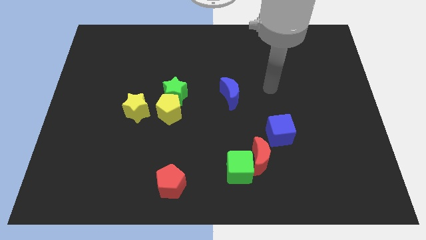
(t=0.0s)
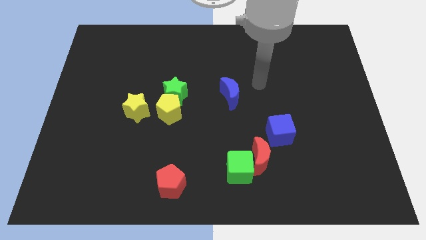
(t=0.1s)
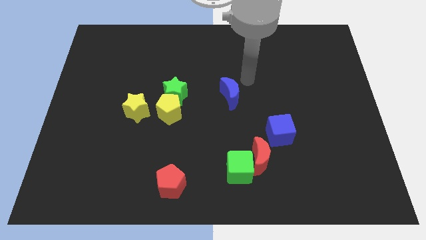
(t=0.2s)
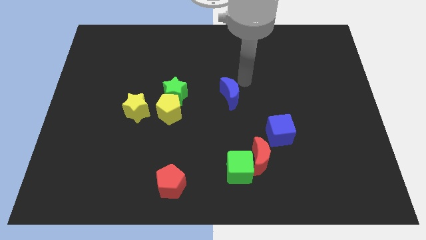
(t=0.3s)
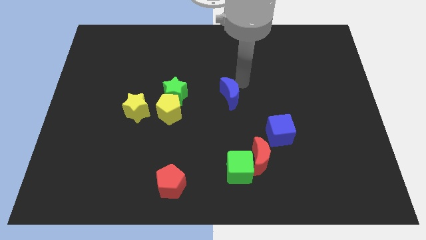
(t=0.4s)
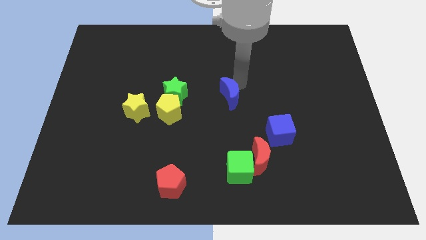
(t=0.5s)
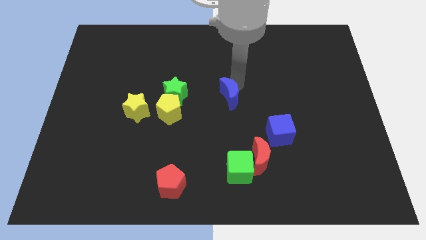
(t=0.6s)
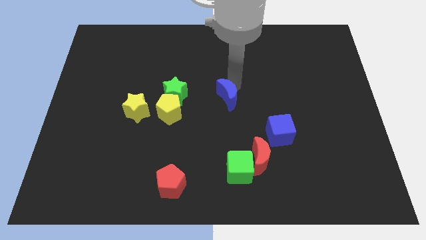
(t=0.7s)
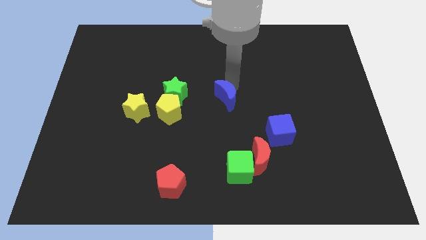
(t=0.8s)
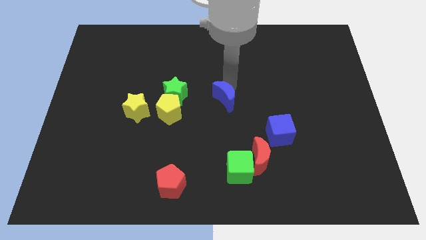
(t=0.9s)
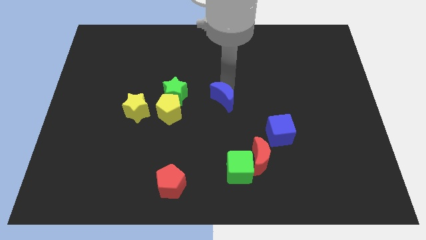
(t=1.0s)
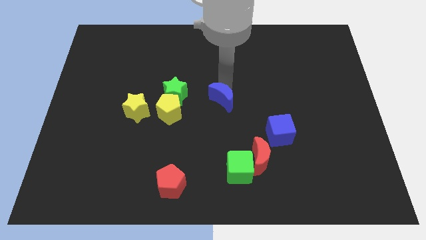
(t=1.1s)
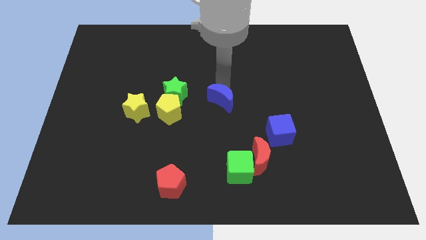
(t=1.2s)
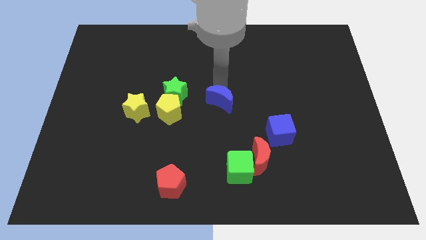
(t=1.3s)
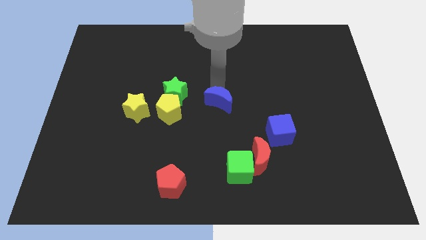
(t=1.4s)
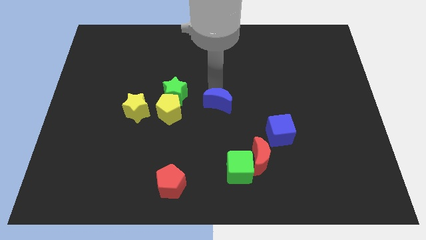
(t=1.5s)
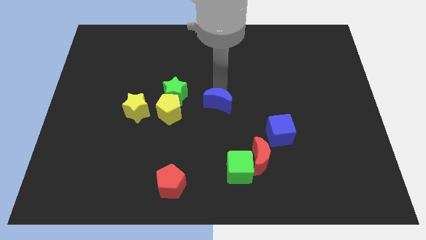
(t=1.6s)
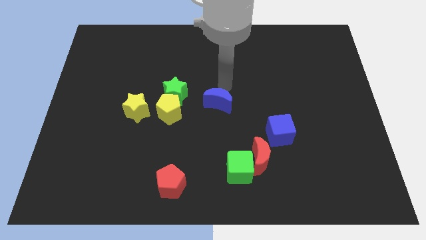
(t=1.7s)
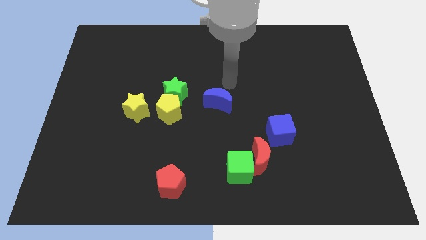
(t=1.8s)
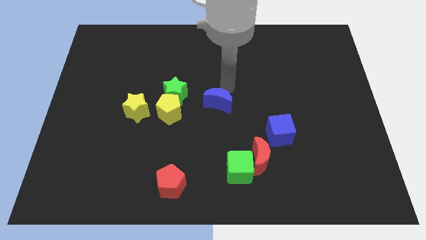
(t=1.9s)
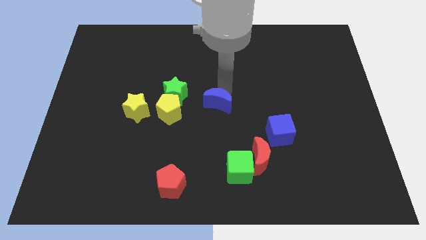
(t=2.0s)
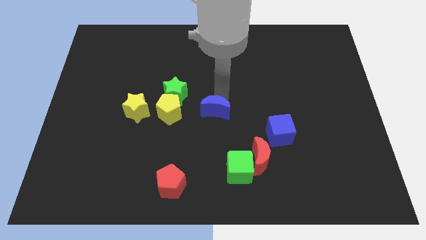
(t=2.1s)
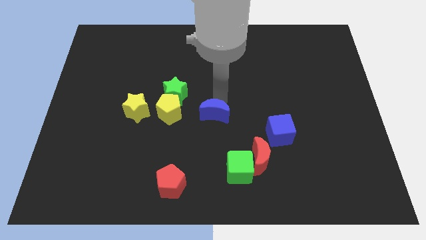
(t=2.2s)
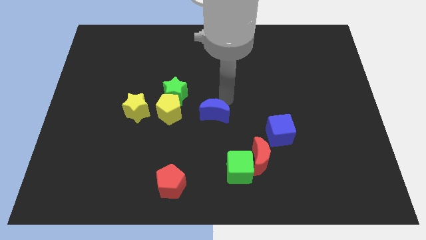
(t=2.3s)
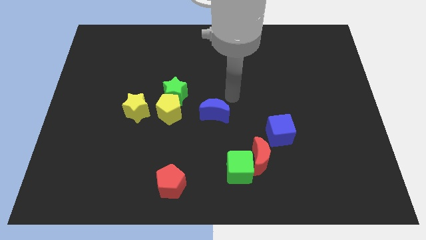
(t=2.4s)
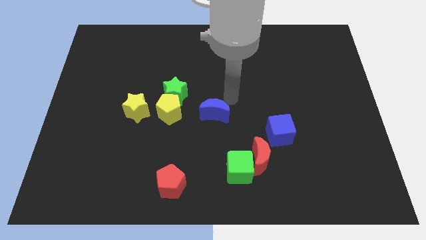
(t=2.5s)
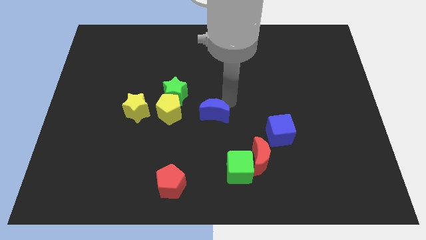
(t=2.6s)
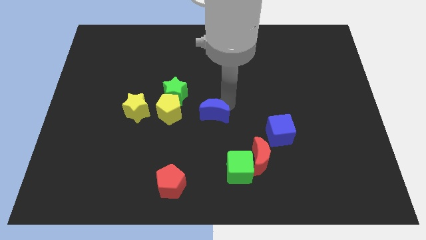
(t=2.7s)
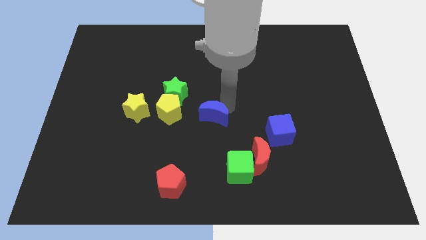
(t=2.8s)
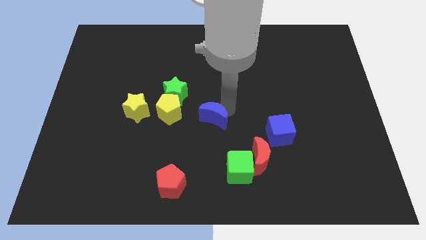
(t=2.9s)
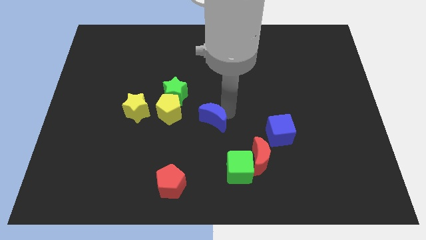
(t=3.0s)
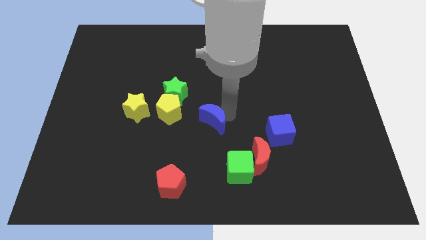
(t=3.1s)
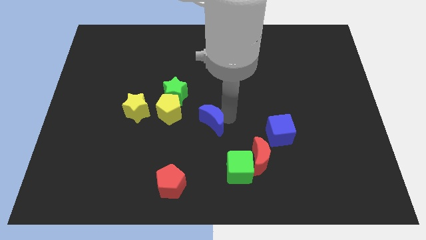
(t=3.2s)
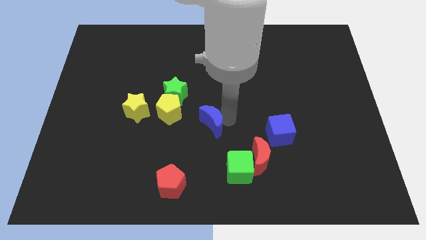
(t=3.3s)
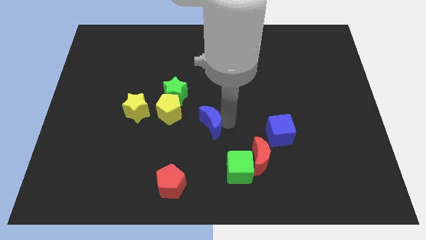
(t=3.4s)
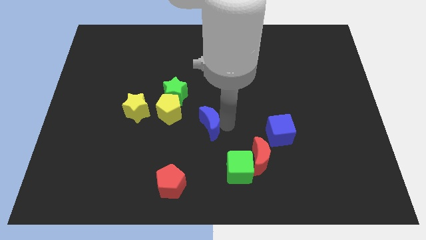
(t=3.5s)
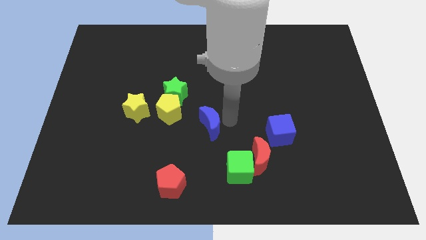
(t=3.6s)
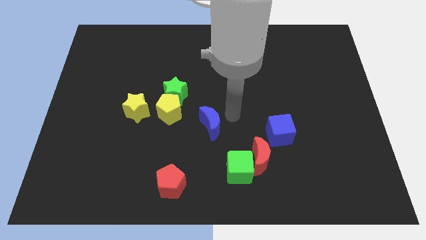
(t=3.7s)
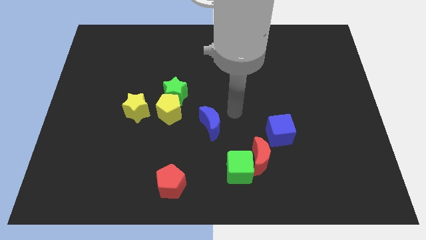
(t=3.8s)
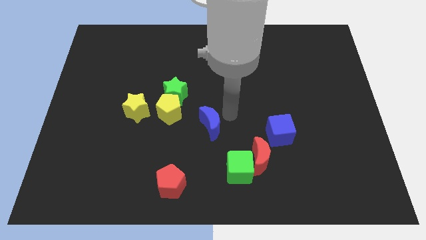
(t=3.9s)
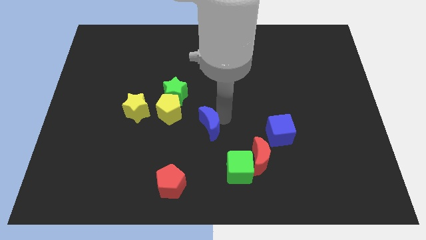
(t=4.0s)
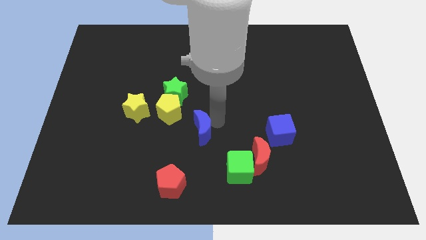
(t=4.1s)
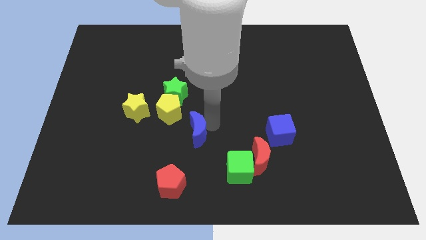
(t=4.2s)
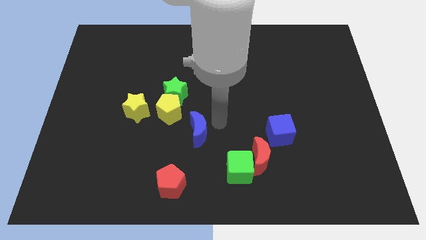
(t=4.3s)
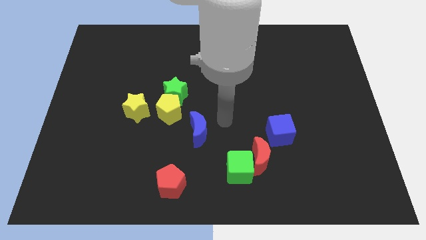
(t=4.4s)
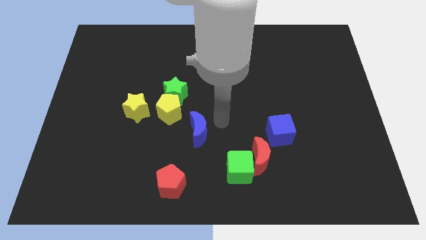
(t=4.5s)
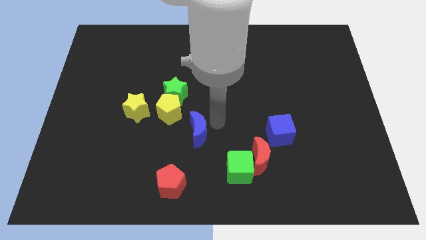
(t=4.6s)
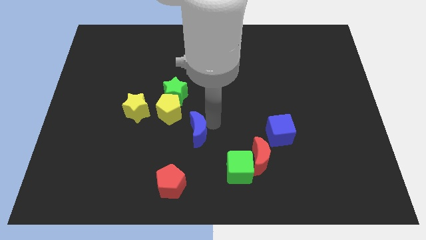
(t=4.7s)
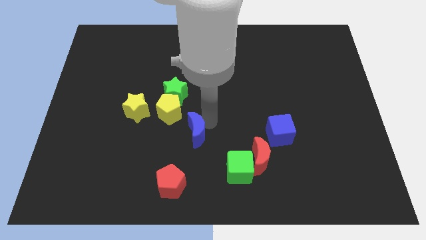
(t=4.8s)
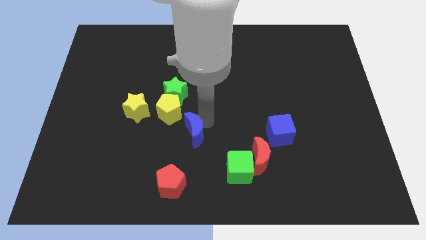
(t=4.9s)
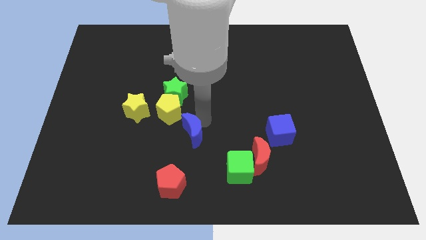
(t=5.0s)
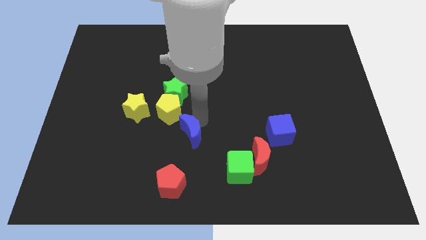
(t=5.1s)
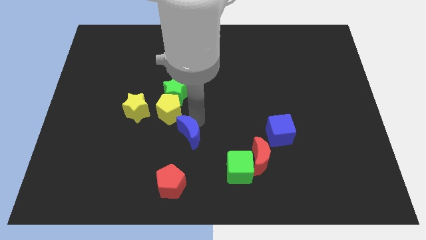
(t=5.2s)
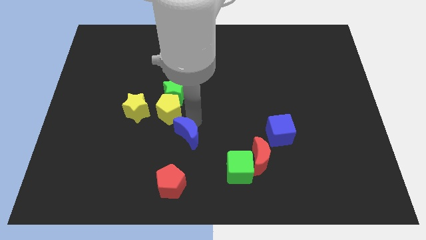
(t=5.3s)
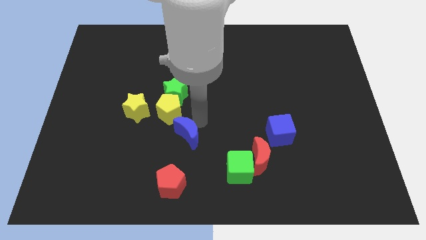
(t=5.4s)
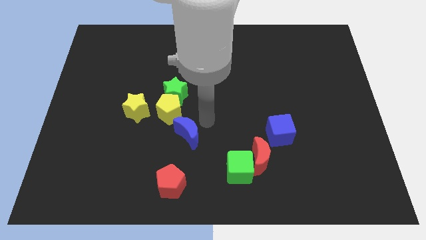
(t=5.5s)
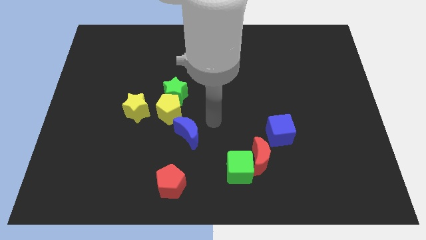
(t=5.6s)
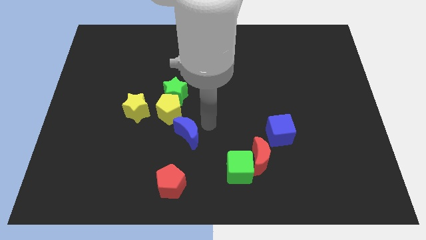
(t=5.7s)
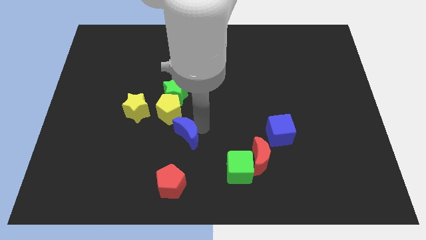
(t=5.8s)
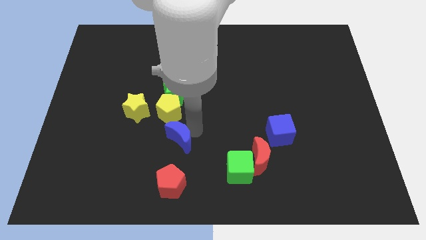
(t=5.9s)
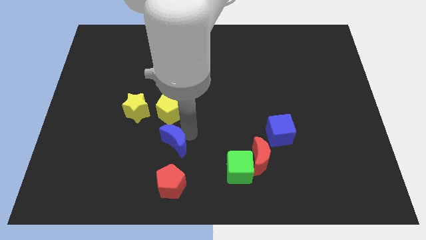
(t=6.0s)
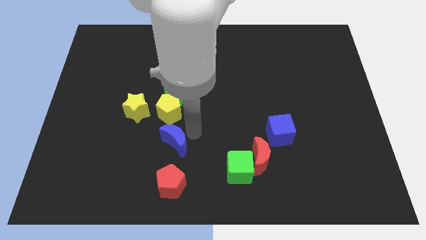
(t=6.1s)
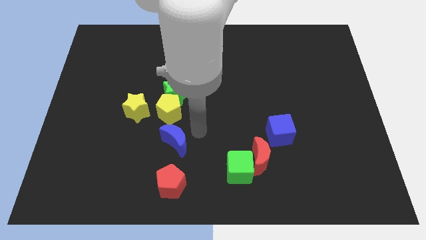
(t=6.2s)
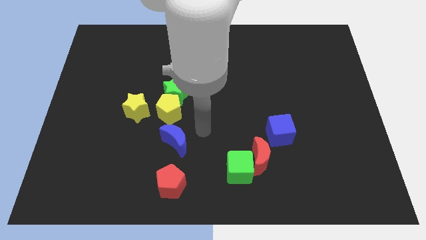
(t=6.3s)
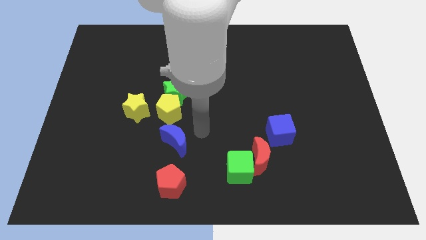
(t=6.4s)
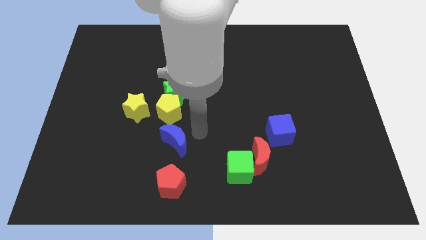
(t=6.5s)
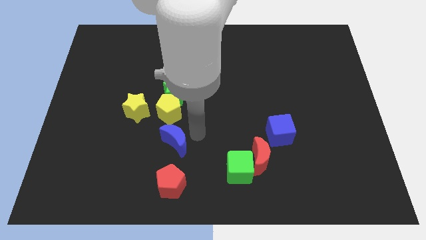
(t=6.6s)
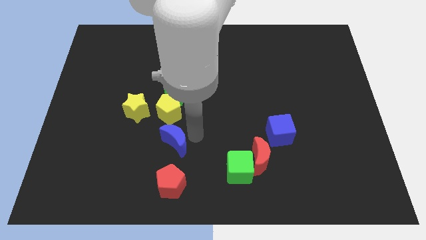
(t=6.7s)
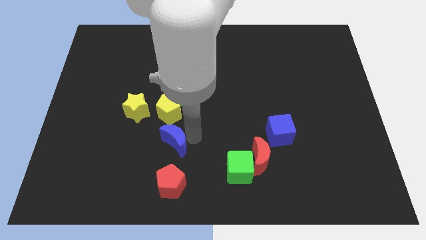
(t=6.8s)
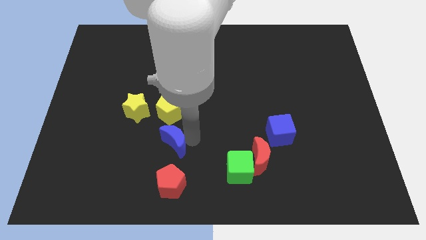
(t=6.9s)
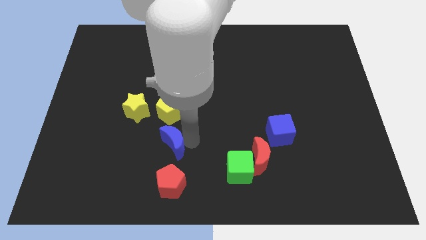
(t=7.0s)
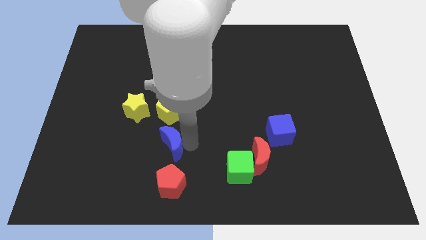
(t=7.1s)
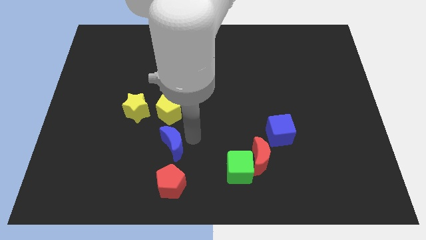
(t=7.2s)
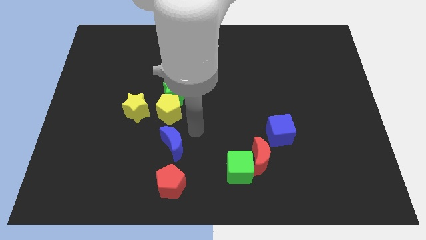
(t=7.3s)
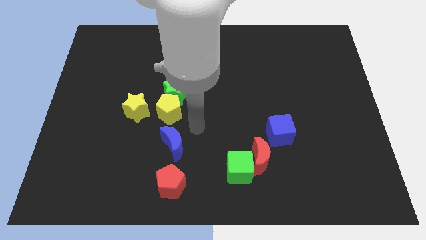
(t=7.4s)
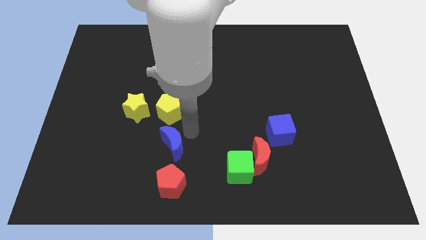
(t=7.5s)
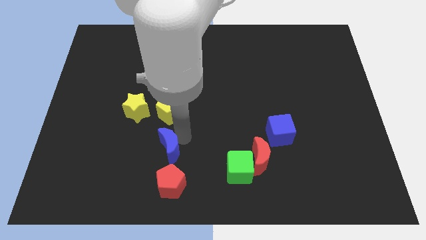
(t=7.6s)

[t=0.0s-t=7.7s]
slide the blue moon down and left

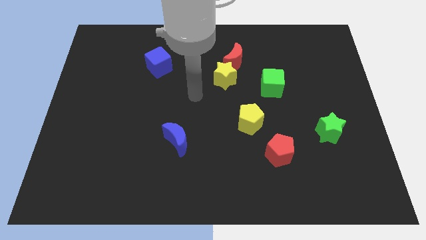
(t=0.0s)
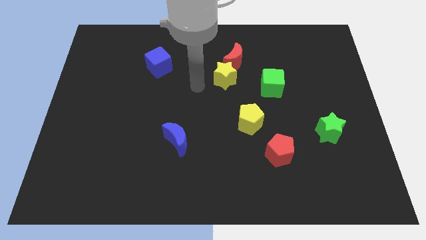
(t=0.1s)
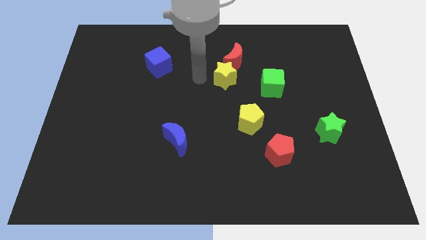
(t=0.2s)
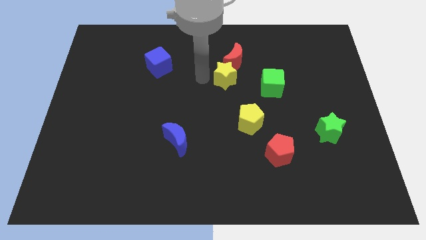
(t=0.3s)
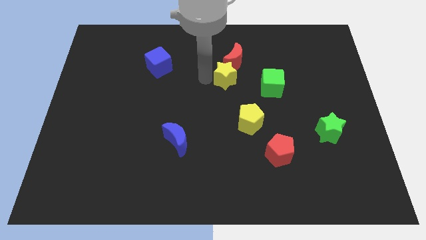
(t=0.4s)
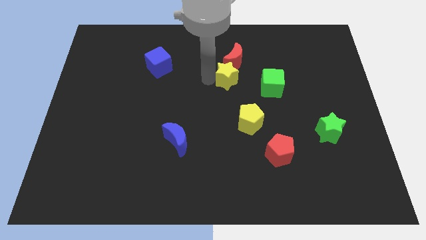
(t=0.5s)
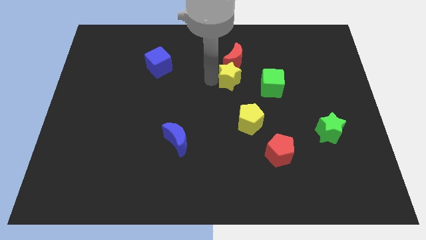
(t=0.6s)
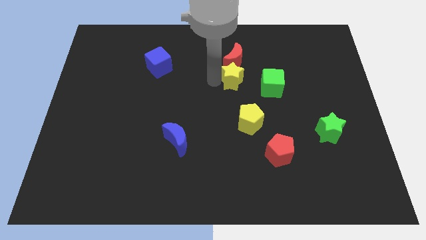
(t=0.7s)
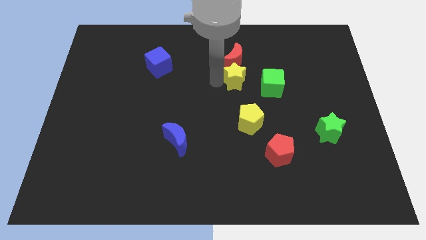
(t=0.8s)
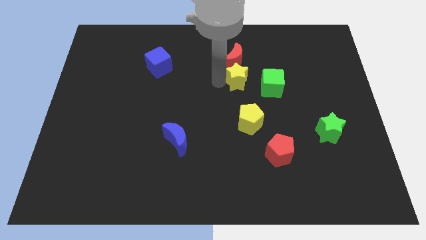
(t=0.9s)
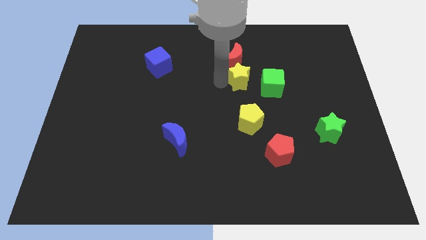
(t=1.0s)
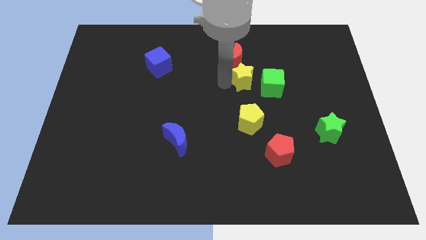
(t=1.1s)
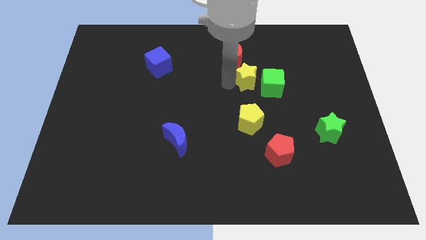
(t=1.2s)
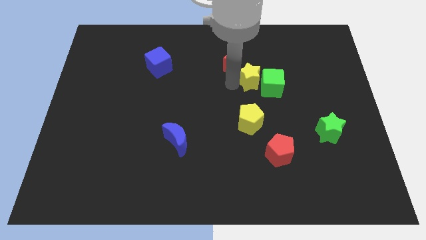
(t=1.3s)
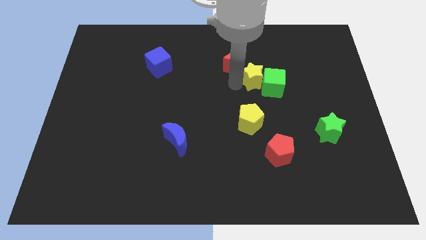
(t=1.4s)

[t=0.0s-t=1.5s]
slightly push the yellow star to the right
